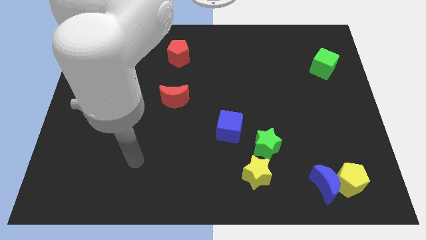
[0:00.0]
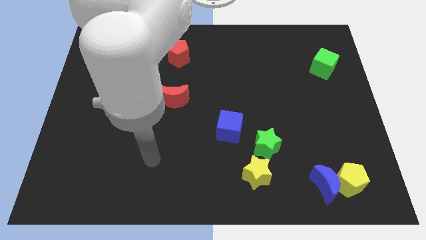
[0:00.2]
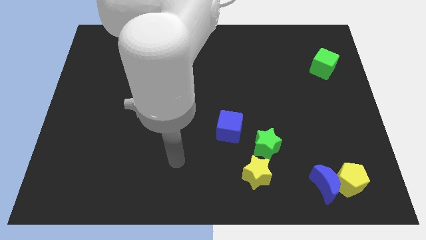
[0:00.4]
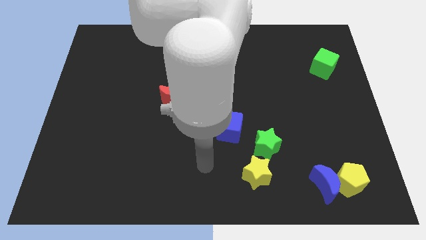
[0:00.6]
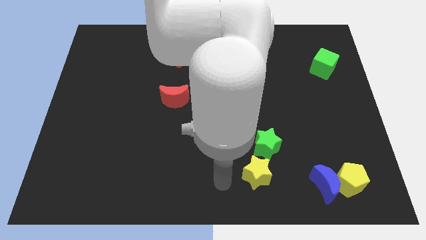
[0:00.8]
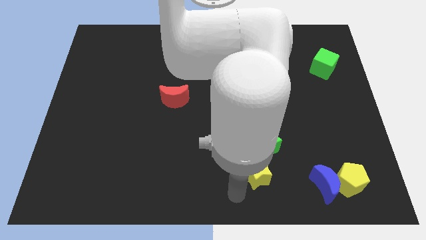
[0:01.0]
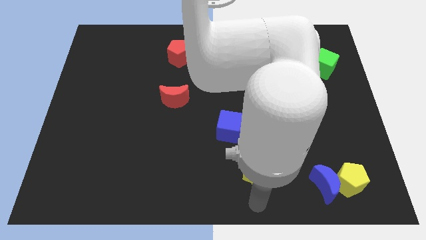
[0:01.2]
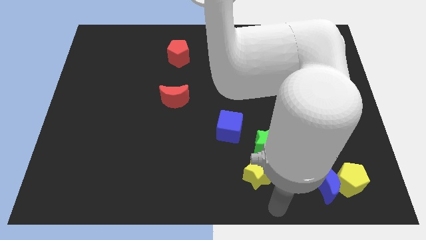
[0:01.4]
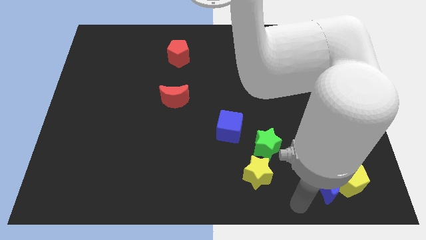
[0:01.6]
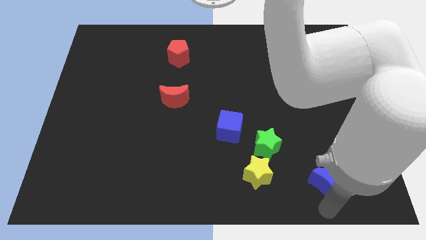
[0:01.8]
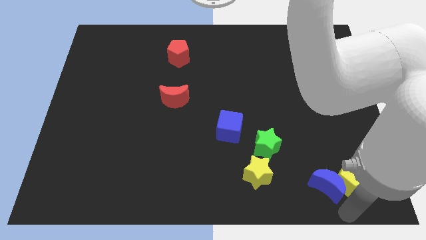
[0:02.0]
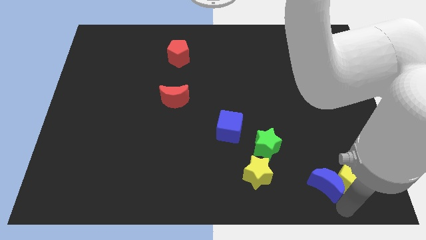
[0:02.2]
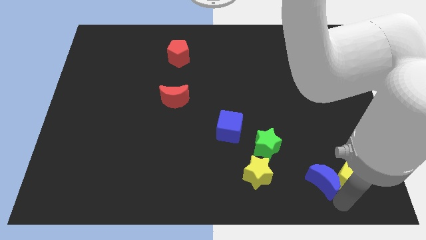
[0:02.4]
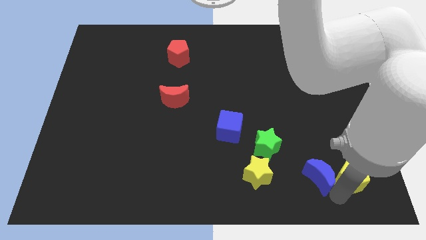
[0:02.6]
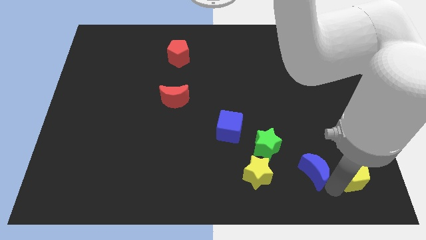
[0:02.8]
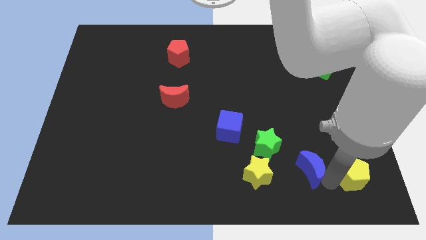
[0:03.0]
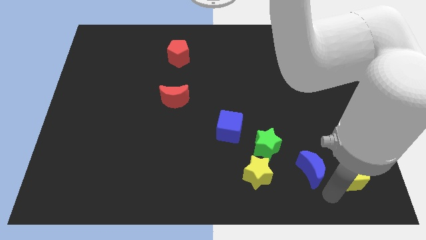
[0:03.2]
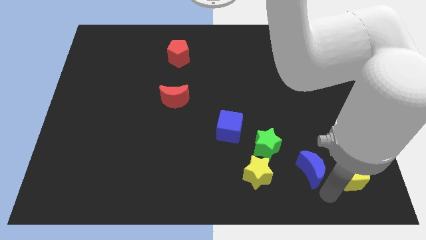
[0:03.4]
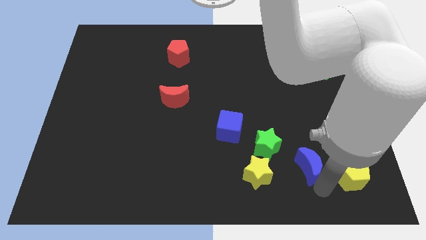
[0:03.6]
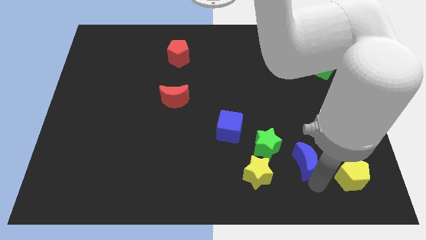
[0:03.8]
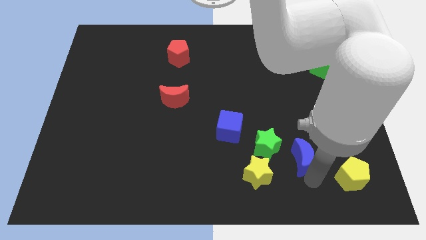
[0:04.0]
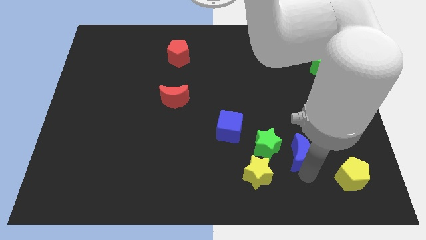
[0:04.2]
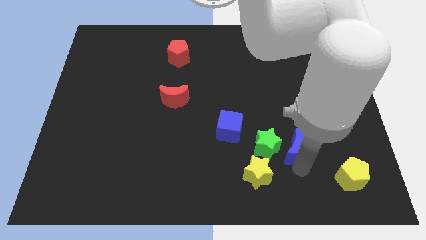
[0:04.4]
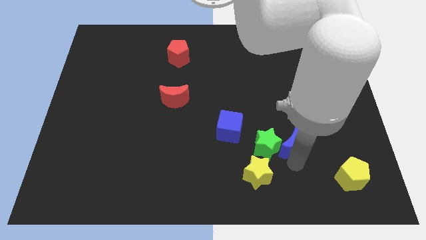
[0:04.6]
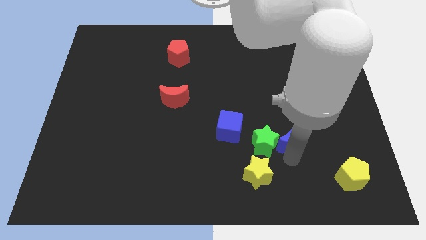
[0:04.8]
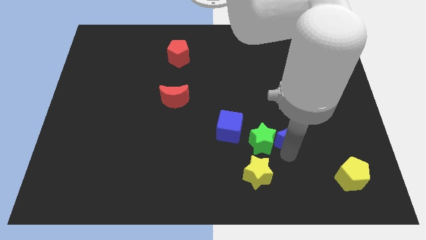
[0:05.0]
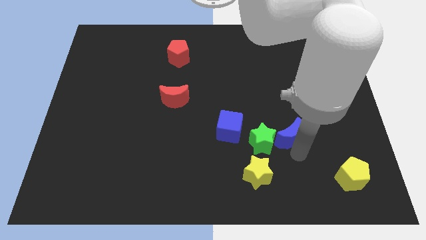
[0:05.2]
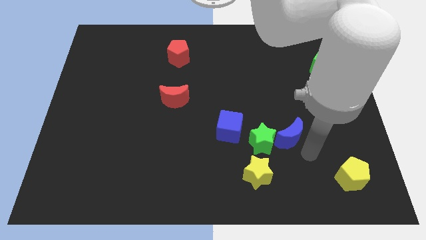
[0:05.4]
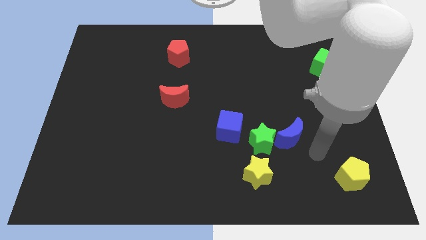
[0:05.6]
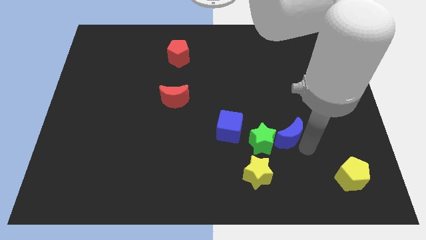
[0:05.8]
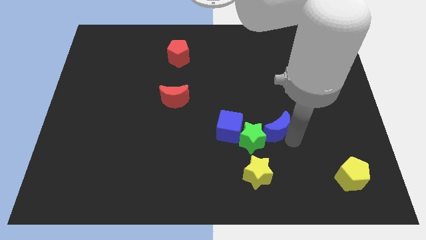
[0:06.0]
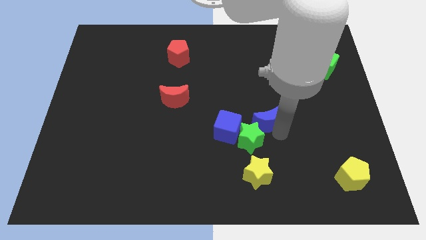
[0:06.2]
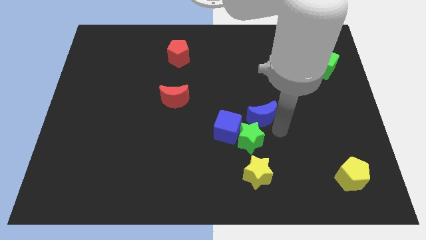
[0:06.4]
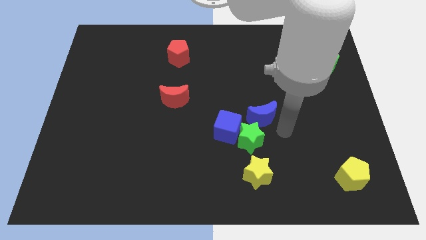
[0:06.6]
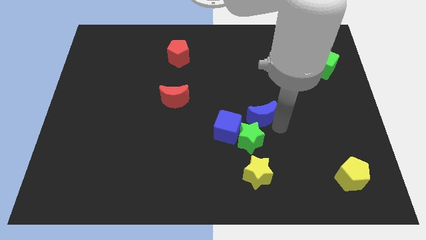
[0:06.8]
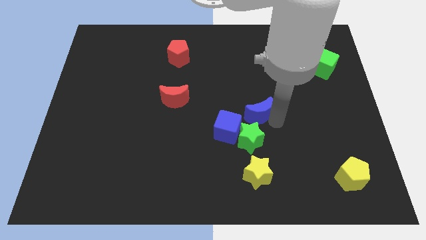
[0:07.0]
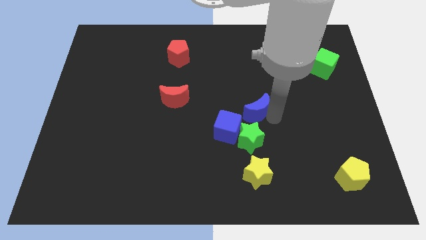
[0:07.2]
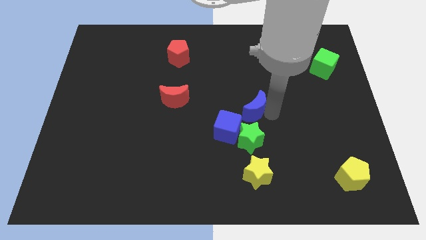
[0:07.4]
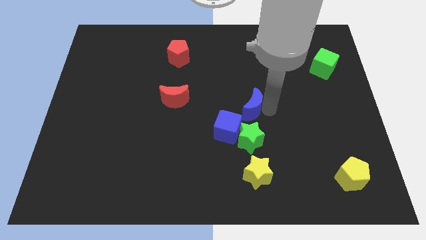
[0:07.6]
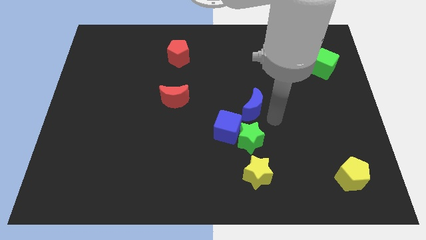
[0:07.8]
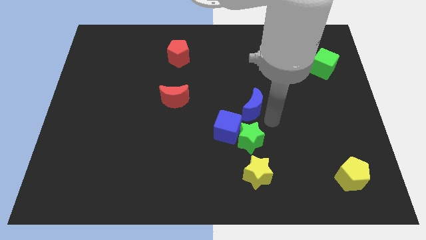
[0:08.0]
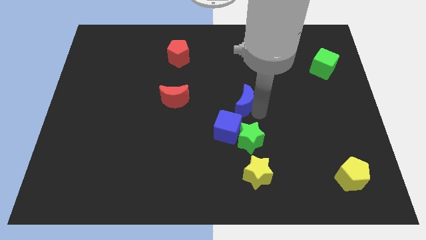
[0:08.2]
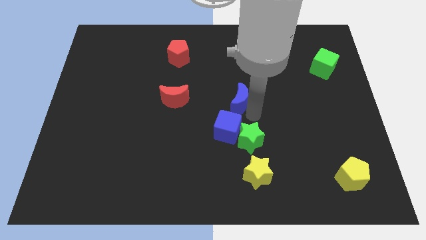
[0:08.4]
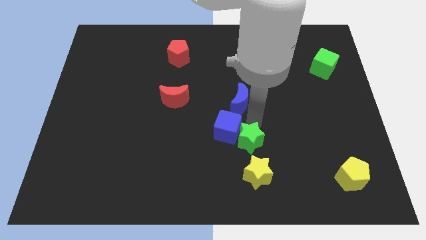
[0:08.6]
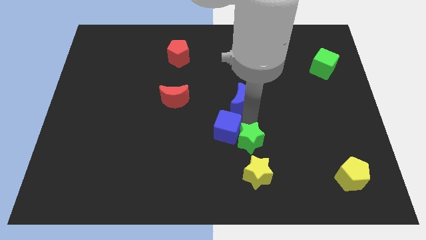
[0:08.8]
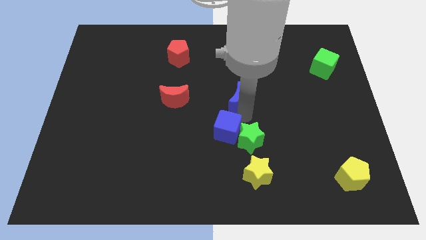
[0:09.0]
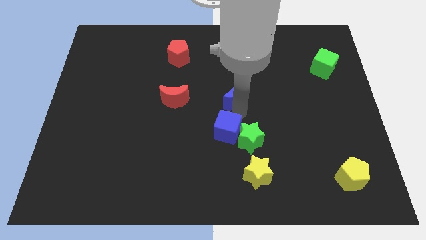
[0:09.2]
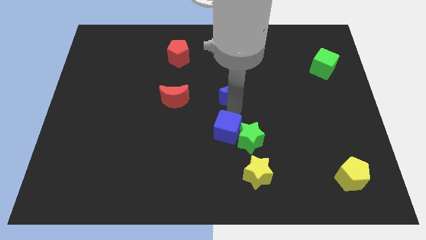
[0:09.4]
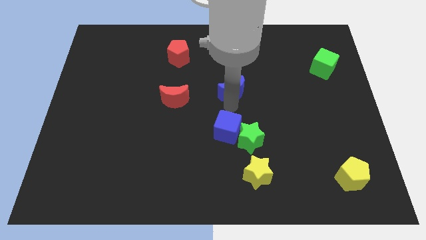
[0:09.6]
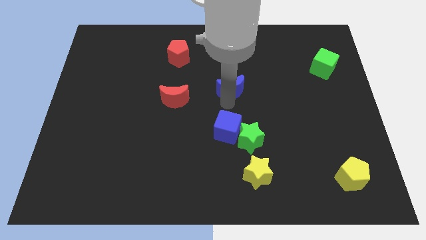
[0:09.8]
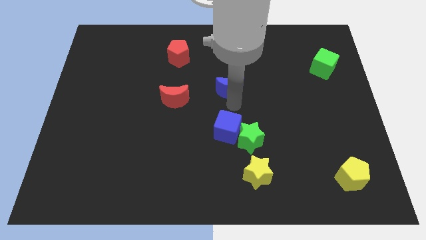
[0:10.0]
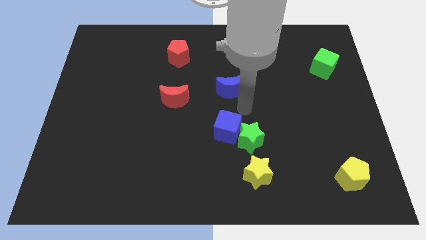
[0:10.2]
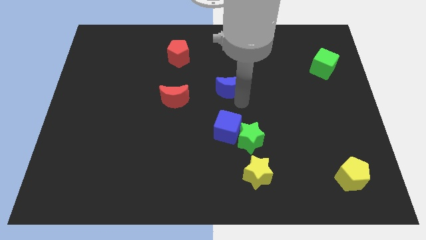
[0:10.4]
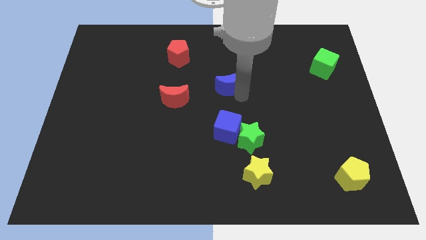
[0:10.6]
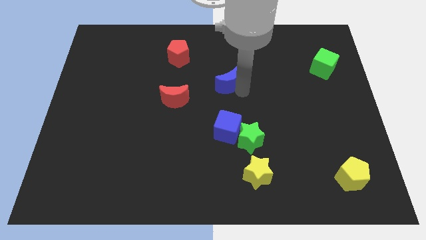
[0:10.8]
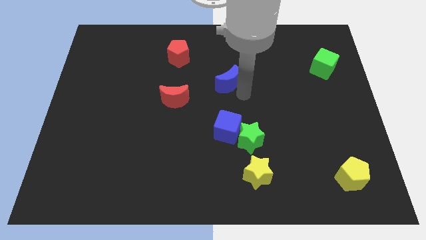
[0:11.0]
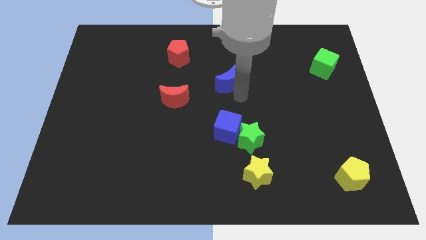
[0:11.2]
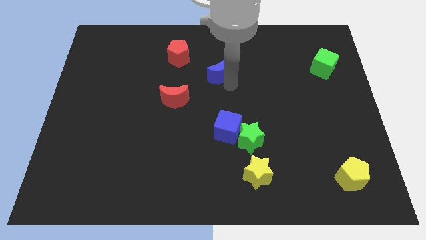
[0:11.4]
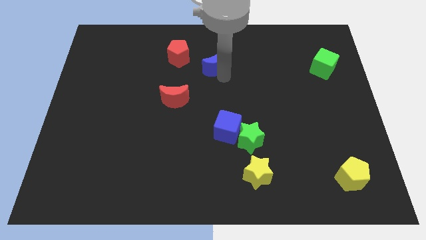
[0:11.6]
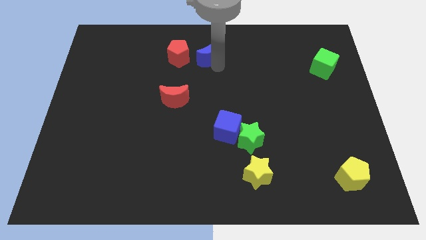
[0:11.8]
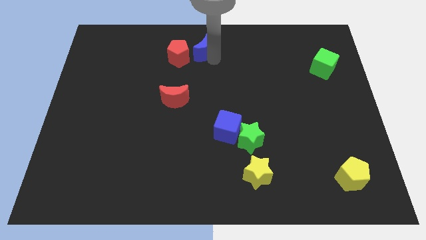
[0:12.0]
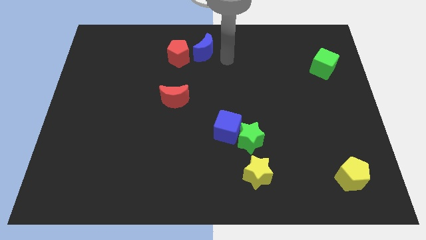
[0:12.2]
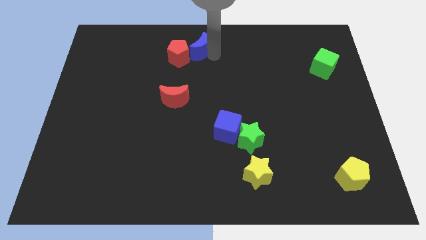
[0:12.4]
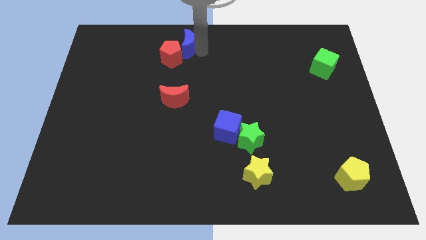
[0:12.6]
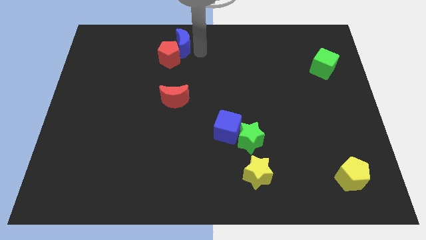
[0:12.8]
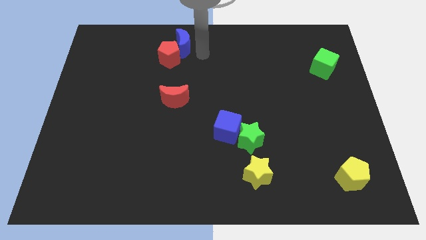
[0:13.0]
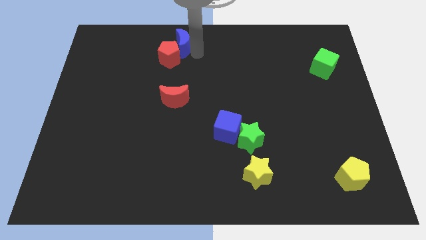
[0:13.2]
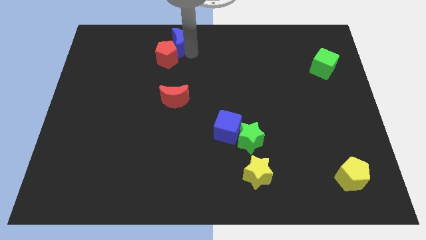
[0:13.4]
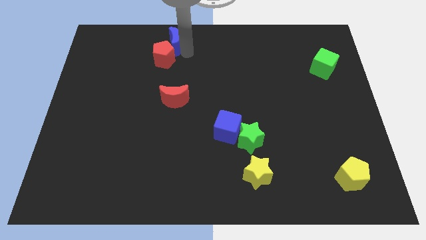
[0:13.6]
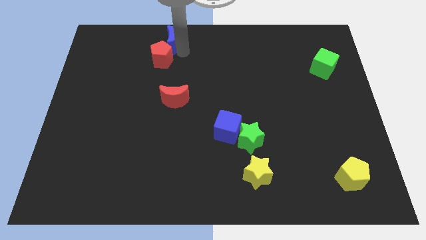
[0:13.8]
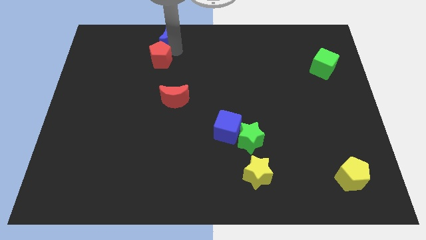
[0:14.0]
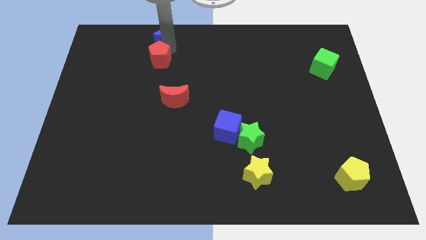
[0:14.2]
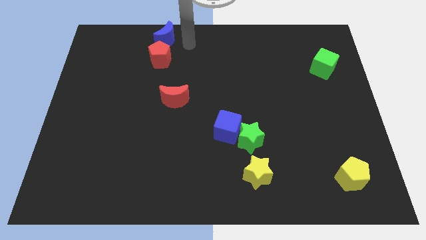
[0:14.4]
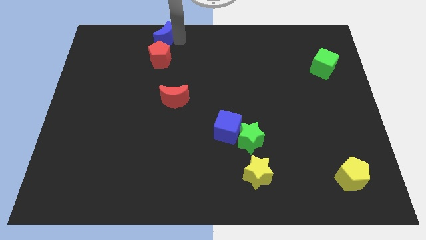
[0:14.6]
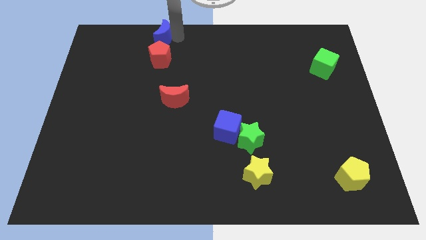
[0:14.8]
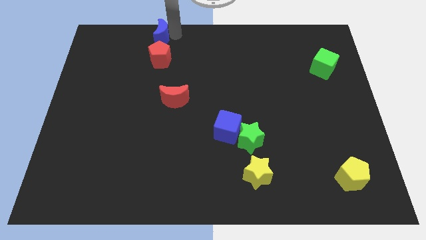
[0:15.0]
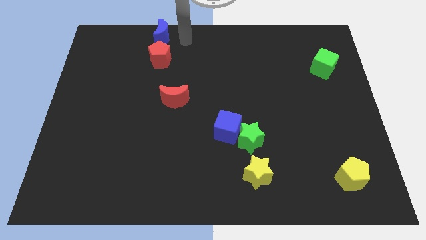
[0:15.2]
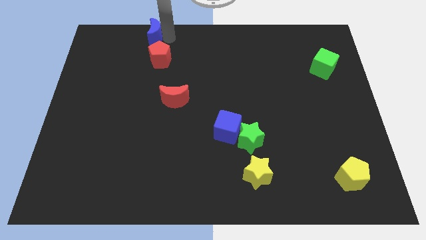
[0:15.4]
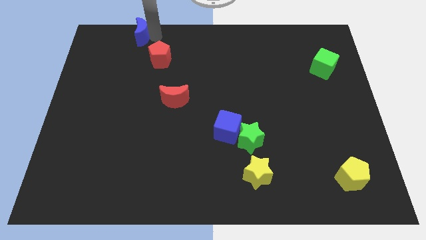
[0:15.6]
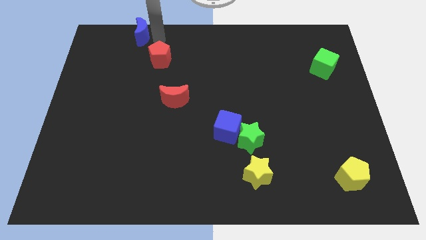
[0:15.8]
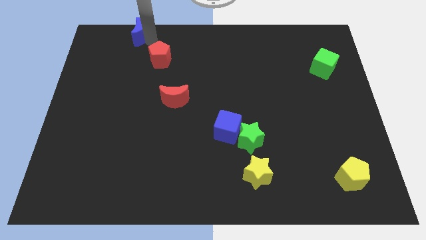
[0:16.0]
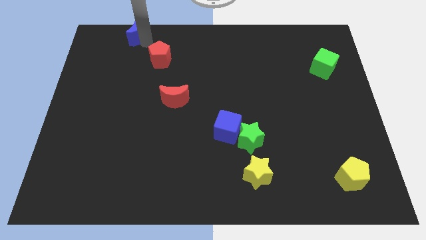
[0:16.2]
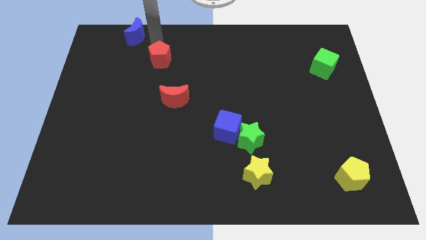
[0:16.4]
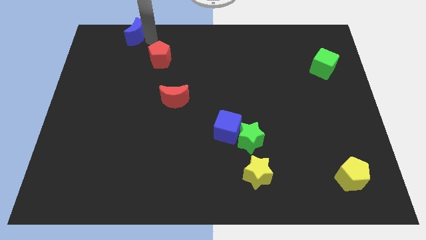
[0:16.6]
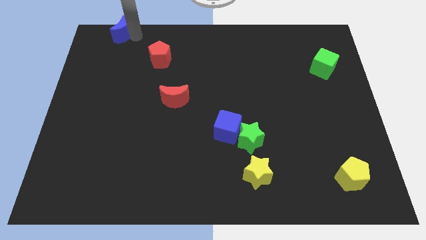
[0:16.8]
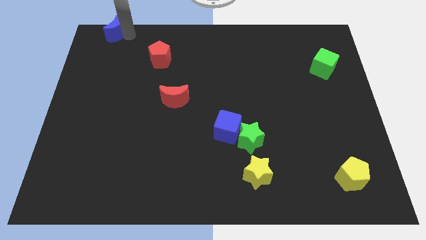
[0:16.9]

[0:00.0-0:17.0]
slide the blue moon to the top left corner
